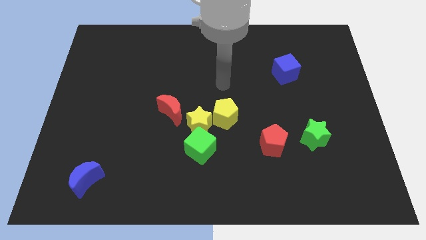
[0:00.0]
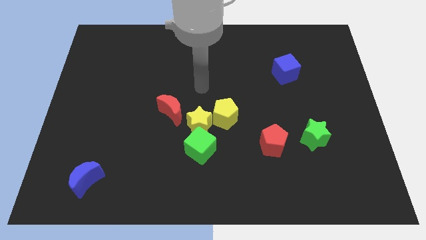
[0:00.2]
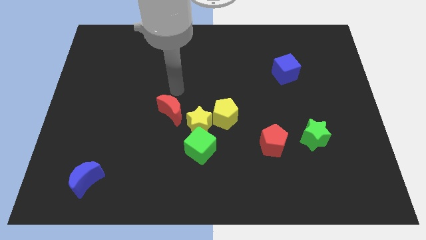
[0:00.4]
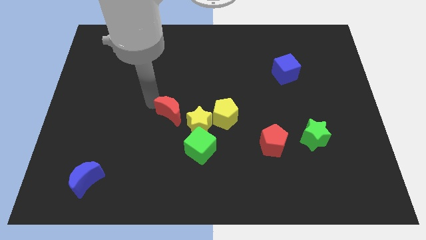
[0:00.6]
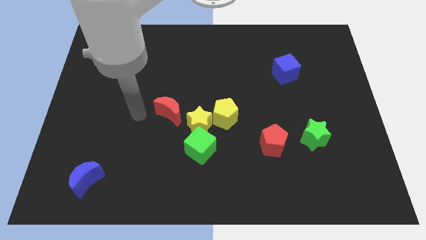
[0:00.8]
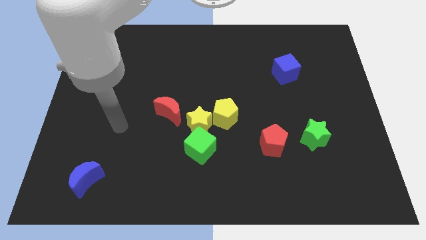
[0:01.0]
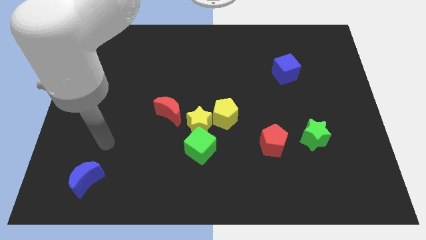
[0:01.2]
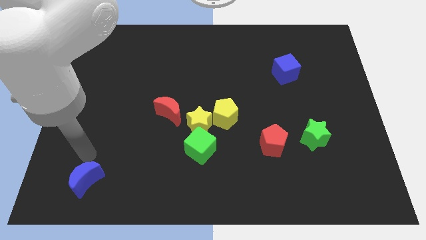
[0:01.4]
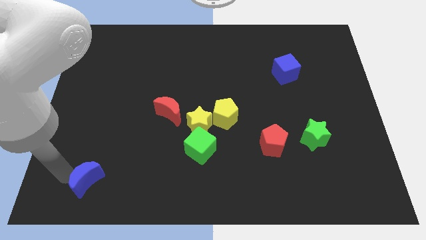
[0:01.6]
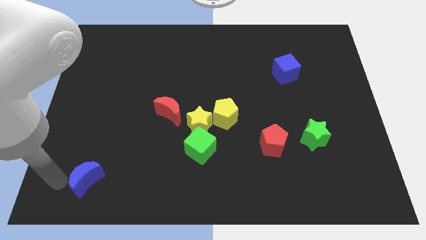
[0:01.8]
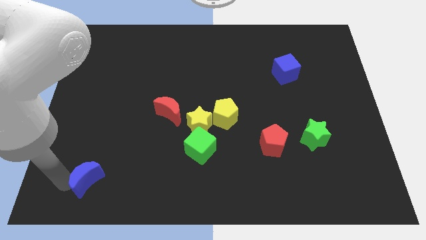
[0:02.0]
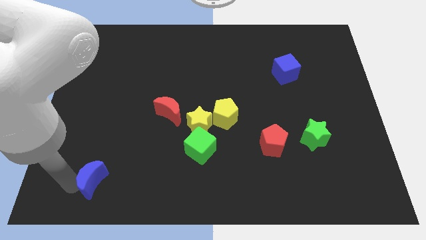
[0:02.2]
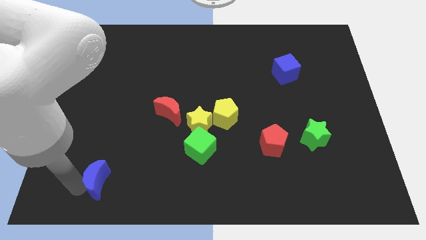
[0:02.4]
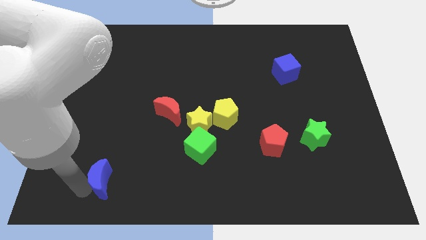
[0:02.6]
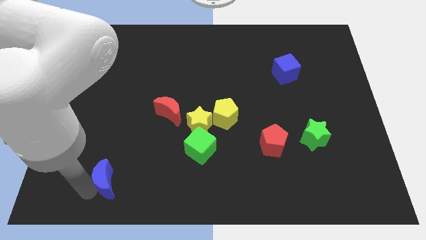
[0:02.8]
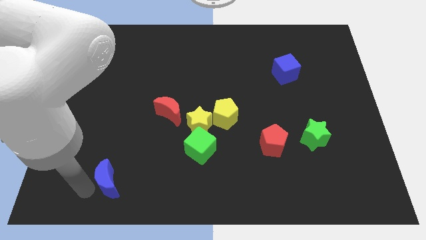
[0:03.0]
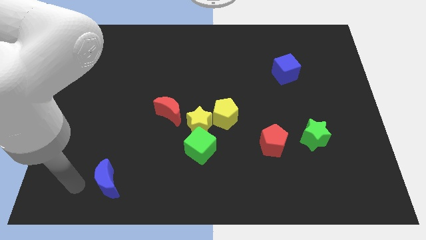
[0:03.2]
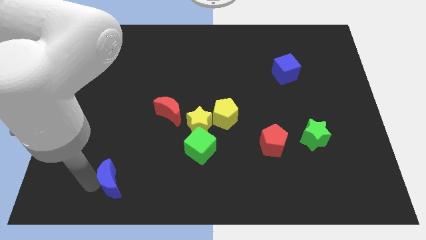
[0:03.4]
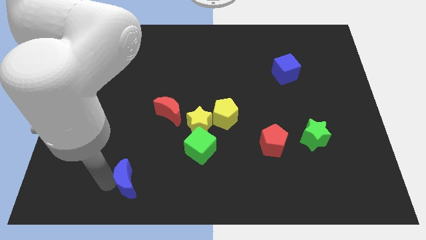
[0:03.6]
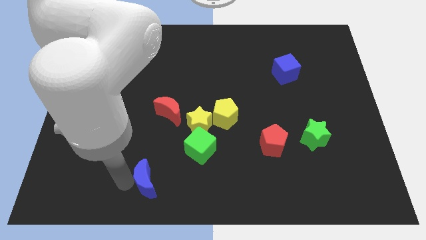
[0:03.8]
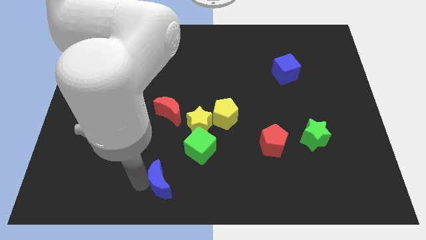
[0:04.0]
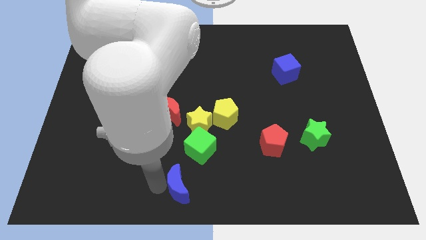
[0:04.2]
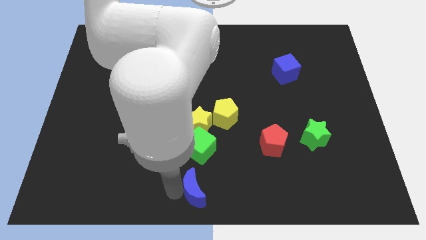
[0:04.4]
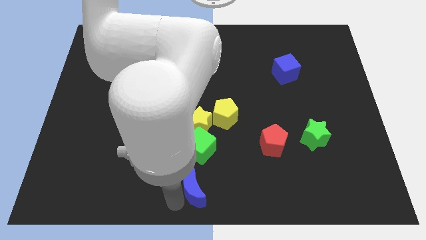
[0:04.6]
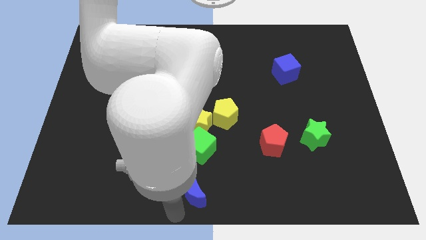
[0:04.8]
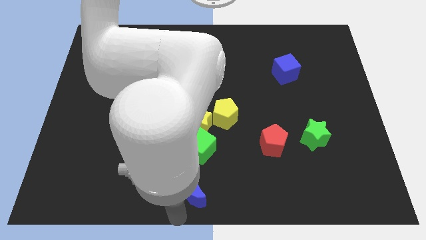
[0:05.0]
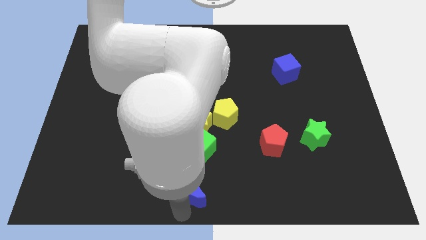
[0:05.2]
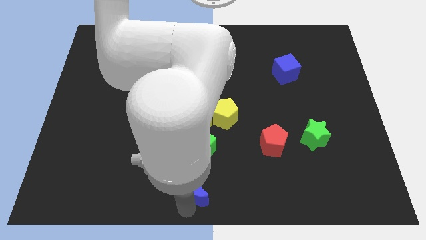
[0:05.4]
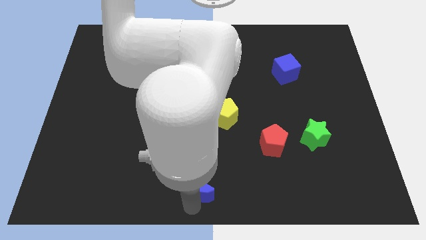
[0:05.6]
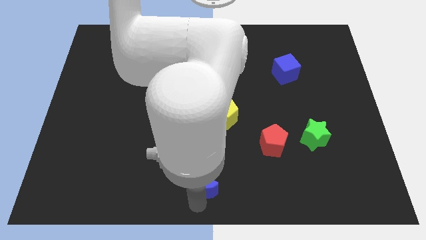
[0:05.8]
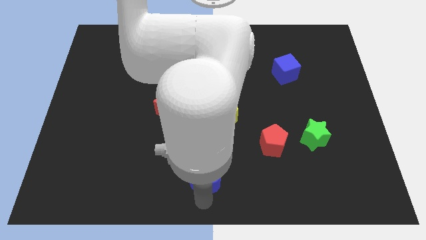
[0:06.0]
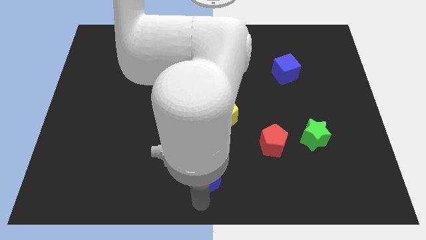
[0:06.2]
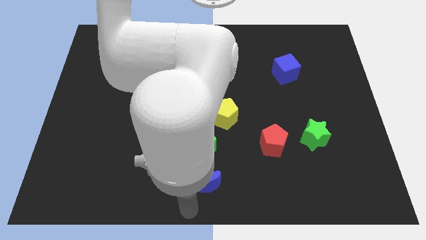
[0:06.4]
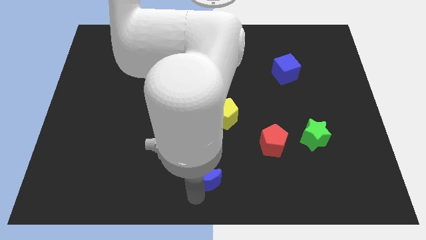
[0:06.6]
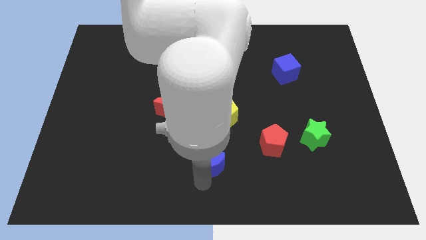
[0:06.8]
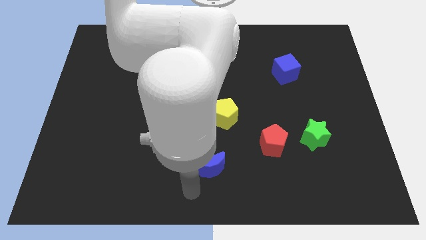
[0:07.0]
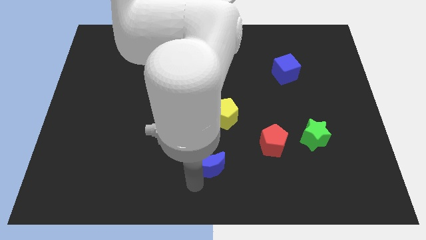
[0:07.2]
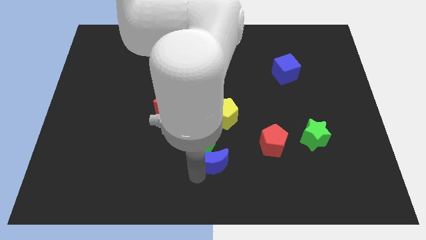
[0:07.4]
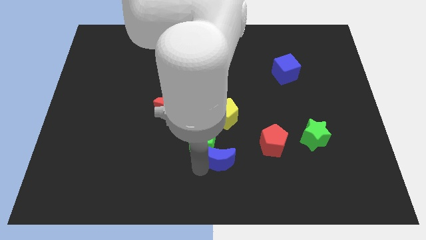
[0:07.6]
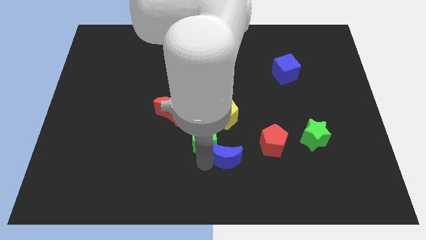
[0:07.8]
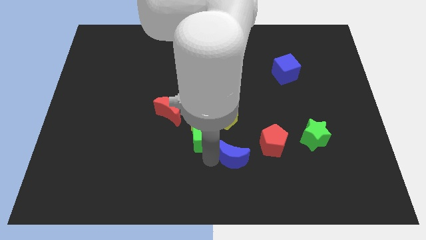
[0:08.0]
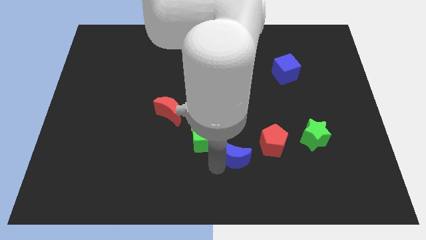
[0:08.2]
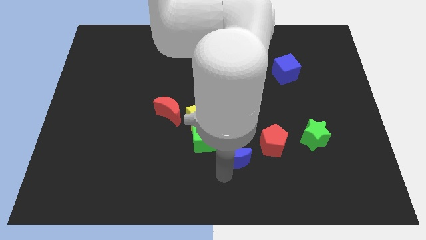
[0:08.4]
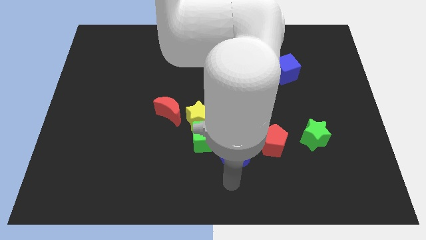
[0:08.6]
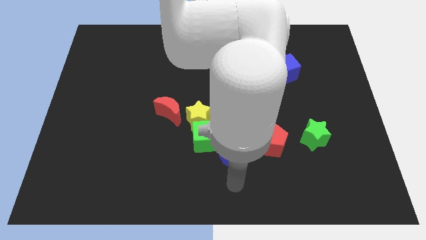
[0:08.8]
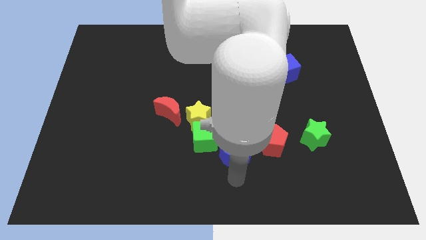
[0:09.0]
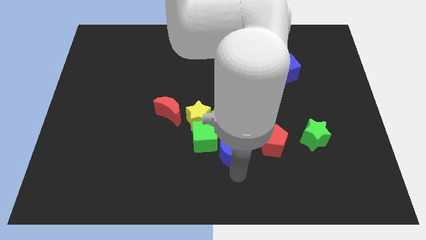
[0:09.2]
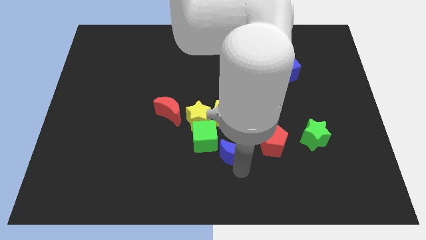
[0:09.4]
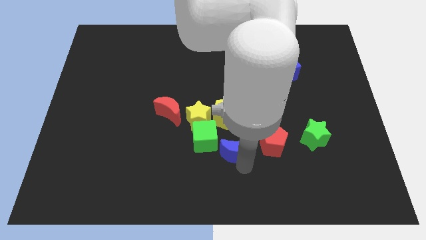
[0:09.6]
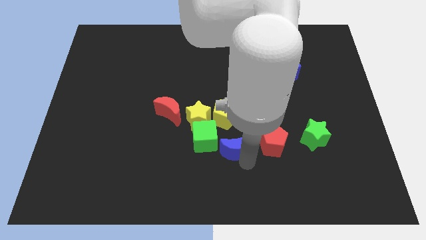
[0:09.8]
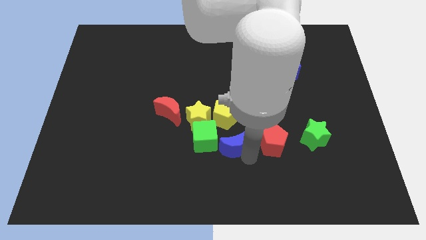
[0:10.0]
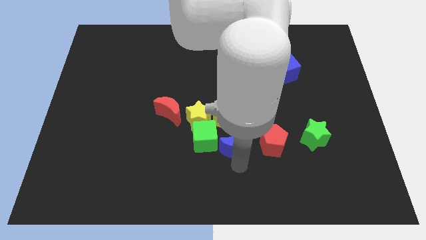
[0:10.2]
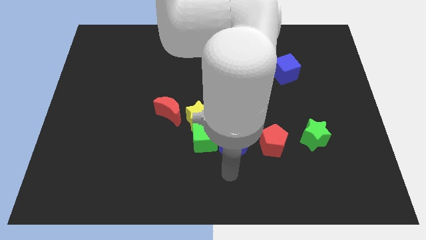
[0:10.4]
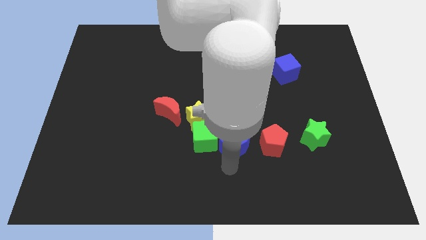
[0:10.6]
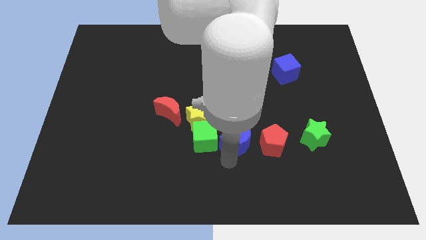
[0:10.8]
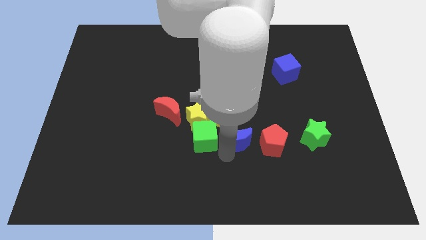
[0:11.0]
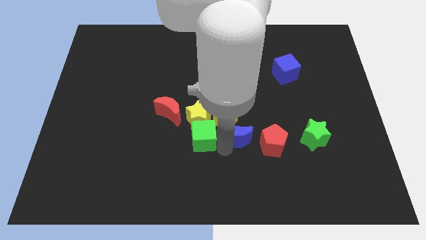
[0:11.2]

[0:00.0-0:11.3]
move the blue moon to the right of the yellow star

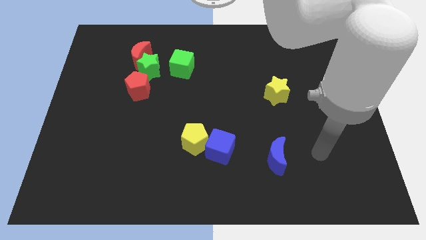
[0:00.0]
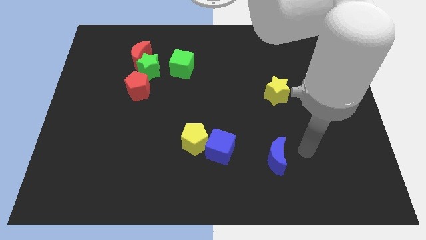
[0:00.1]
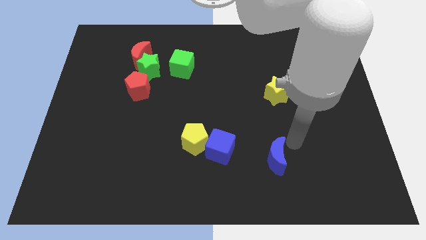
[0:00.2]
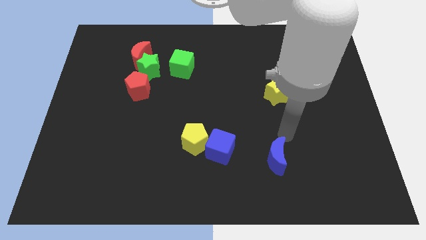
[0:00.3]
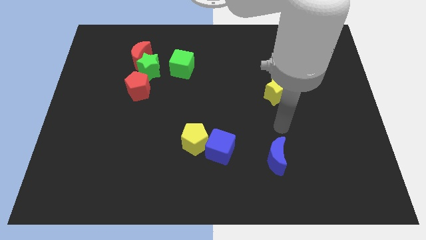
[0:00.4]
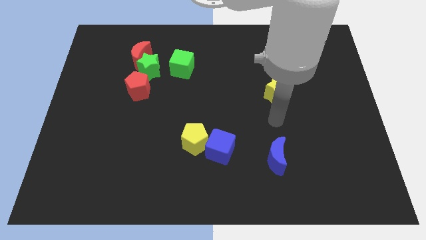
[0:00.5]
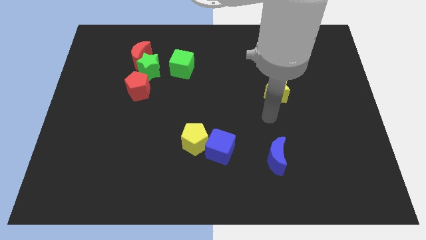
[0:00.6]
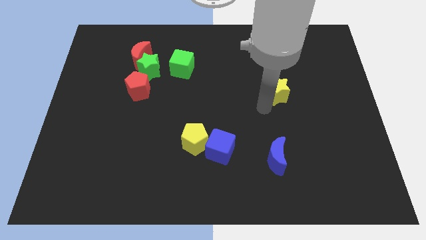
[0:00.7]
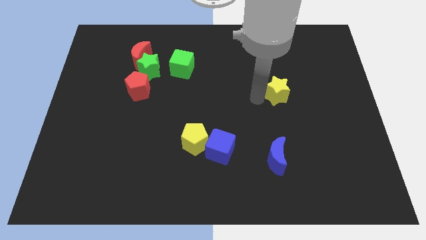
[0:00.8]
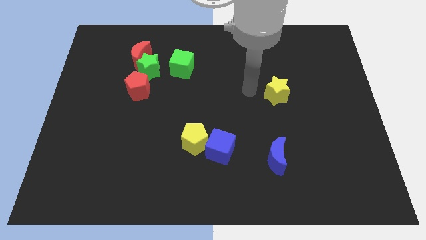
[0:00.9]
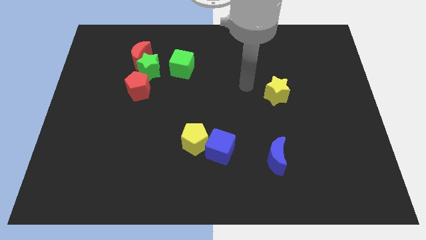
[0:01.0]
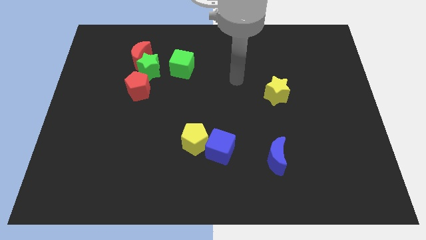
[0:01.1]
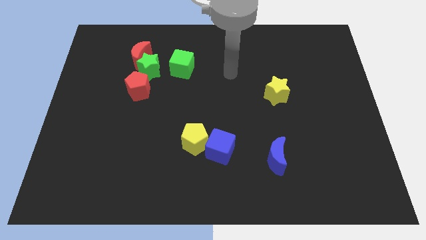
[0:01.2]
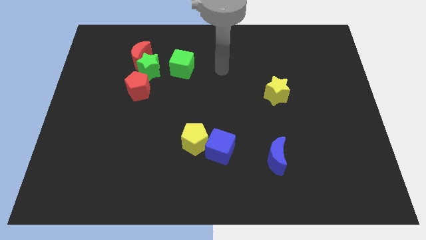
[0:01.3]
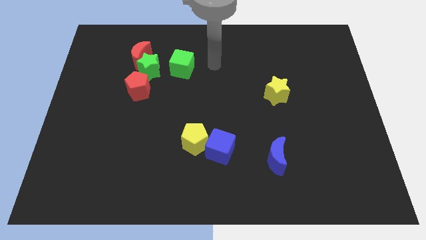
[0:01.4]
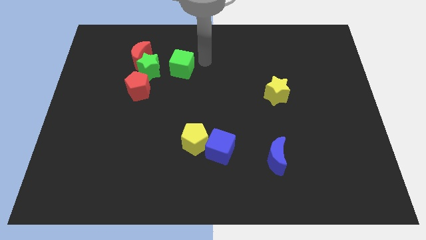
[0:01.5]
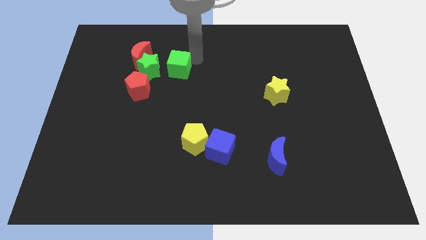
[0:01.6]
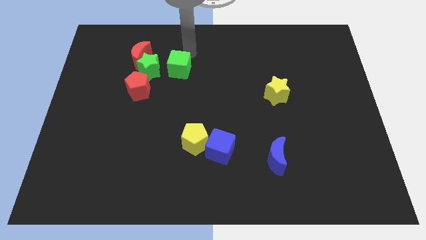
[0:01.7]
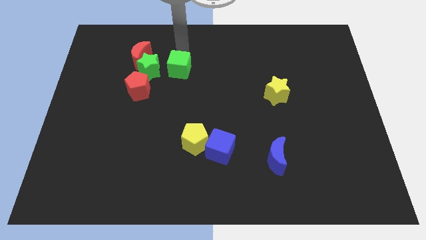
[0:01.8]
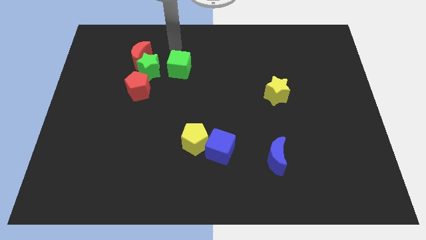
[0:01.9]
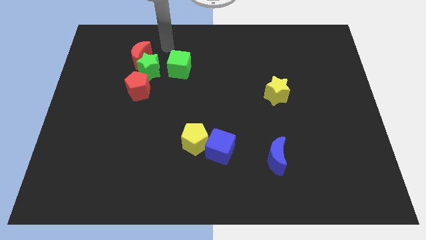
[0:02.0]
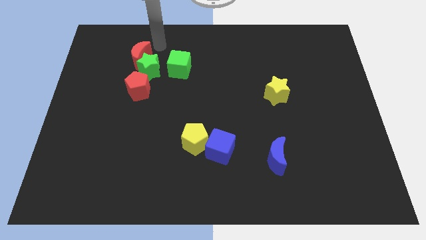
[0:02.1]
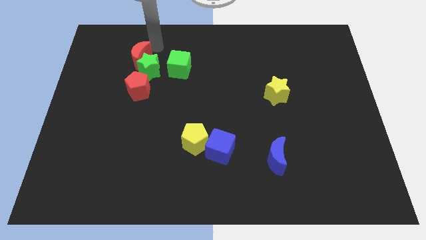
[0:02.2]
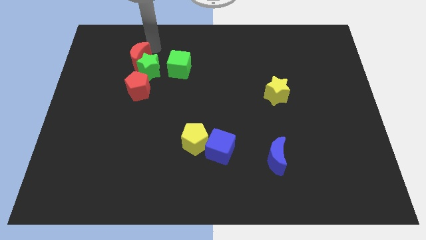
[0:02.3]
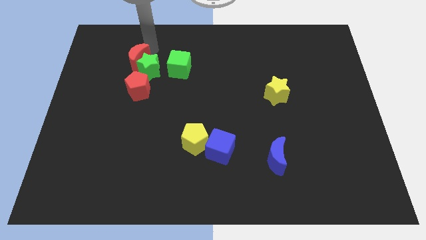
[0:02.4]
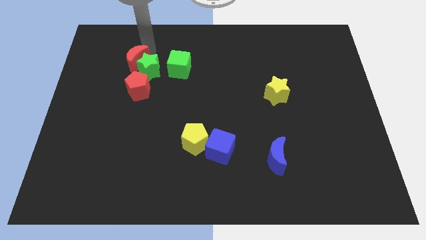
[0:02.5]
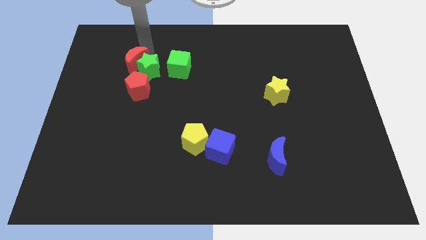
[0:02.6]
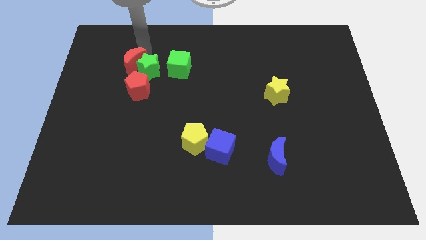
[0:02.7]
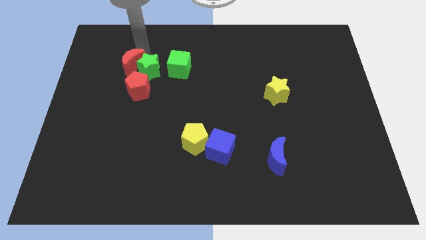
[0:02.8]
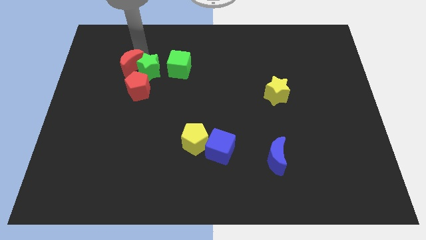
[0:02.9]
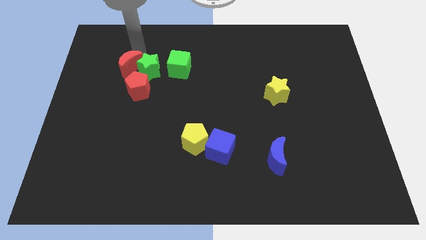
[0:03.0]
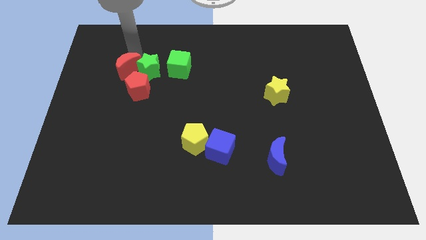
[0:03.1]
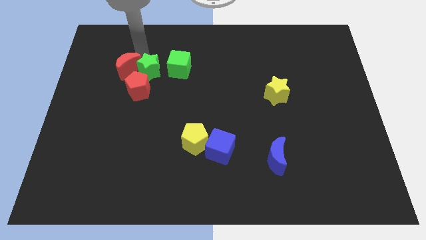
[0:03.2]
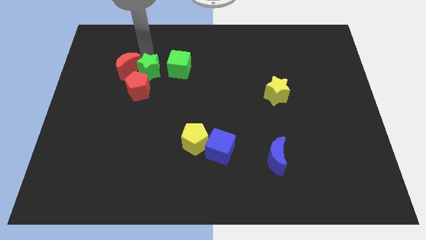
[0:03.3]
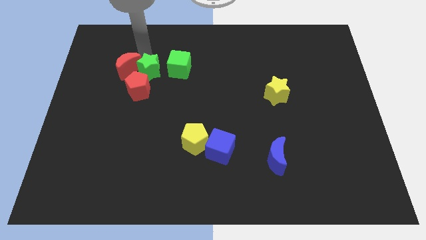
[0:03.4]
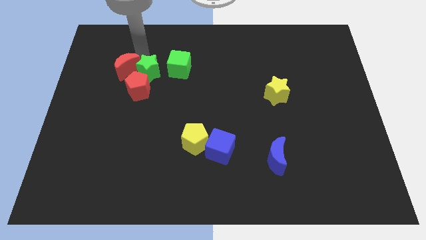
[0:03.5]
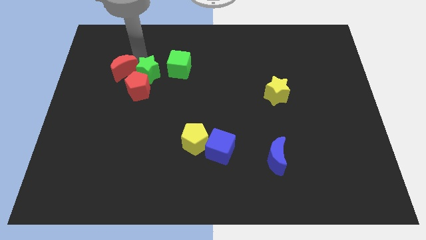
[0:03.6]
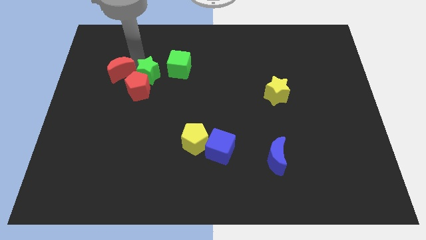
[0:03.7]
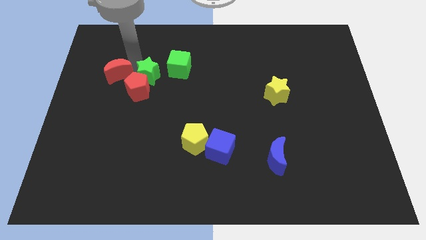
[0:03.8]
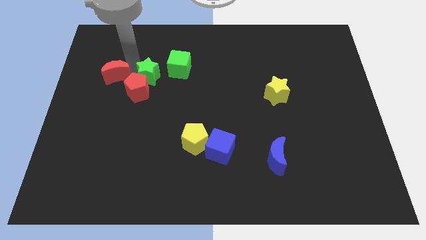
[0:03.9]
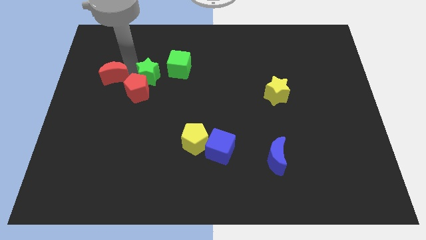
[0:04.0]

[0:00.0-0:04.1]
push the red moon to the left of the red pentagon
